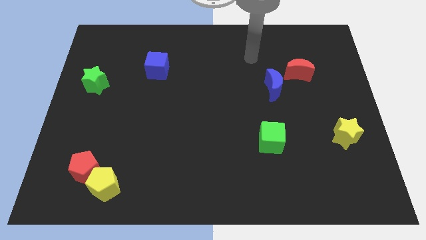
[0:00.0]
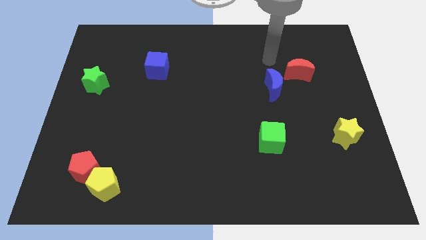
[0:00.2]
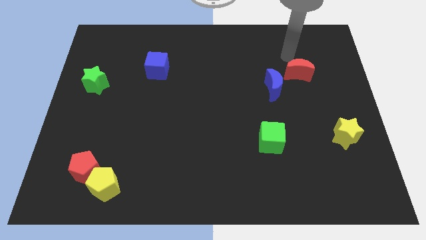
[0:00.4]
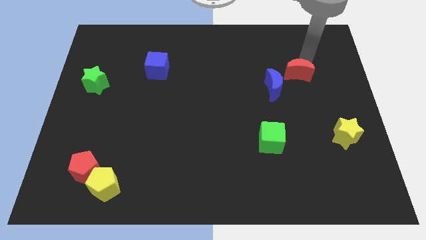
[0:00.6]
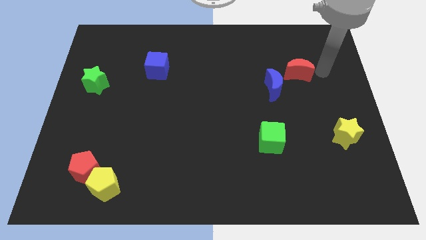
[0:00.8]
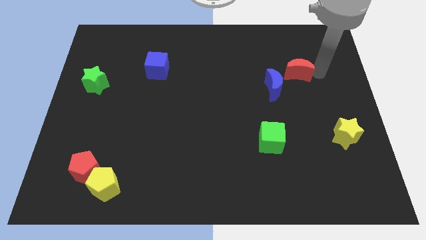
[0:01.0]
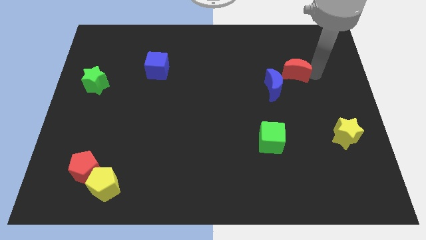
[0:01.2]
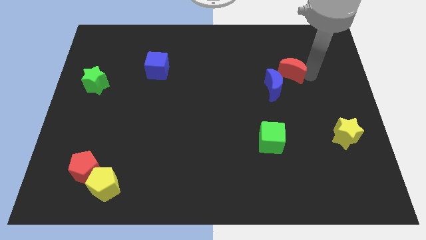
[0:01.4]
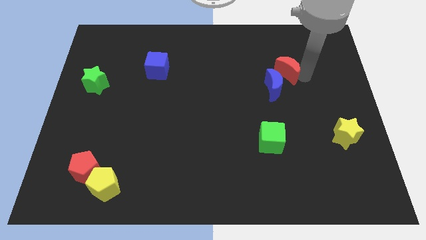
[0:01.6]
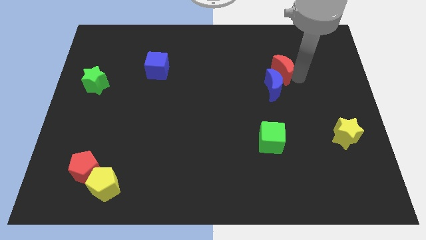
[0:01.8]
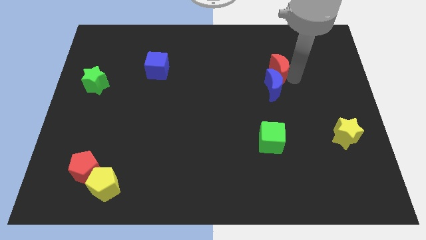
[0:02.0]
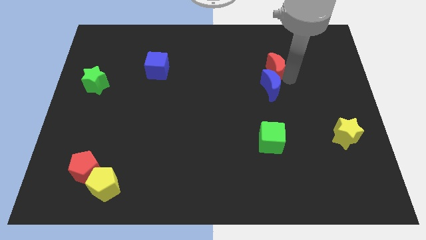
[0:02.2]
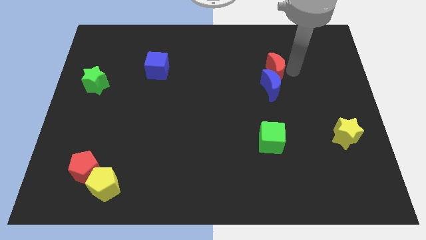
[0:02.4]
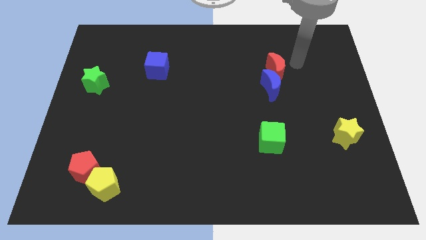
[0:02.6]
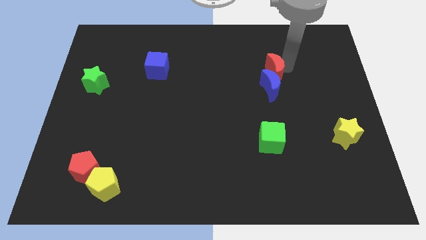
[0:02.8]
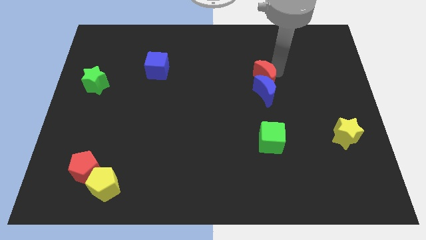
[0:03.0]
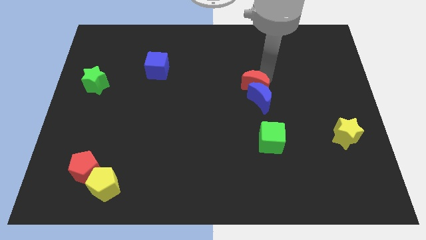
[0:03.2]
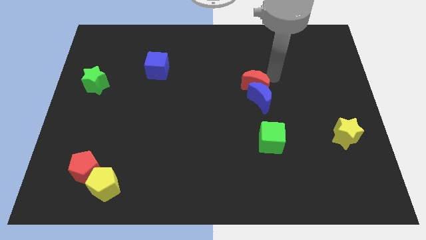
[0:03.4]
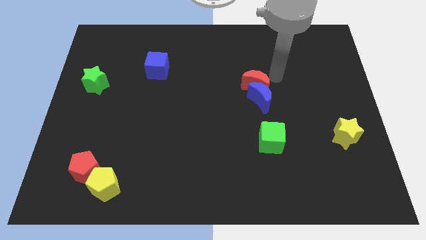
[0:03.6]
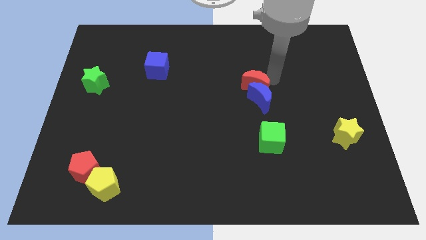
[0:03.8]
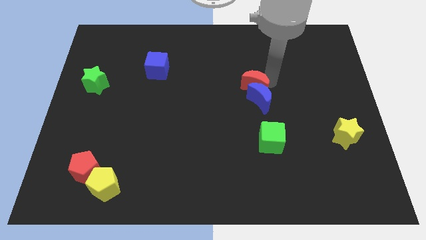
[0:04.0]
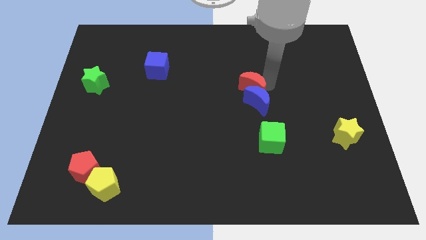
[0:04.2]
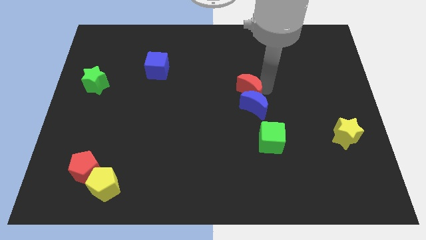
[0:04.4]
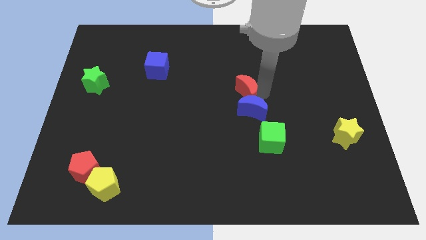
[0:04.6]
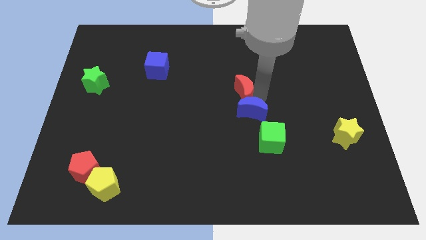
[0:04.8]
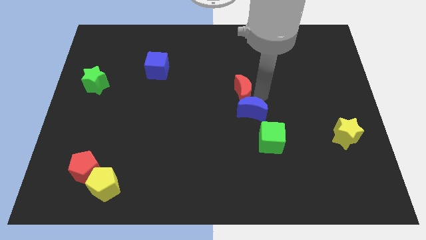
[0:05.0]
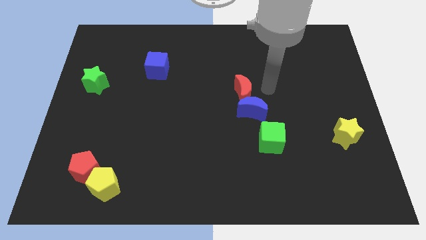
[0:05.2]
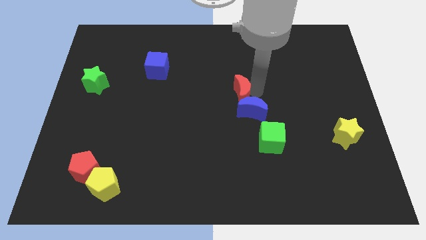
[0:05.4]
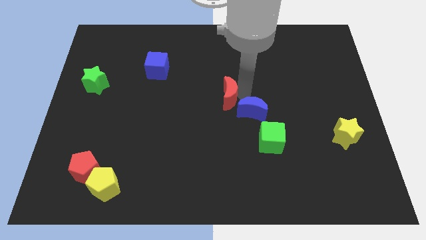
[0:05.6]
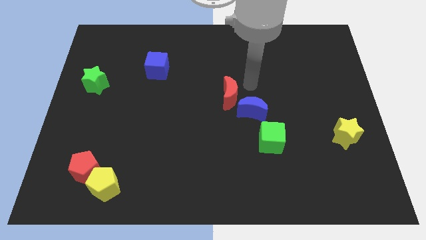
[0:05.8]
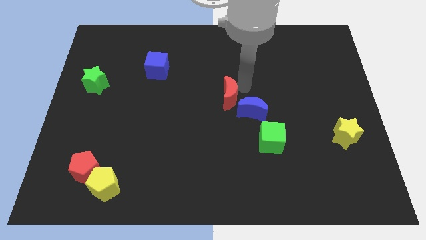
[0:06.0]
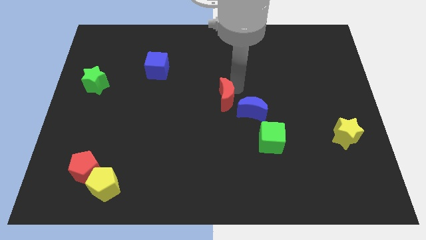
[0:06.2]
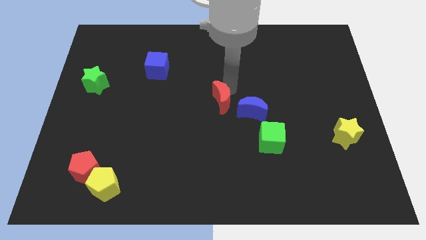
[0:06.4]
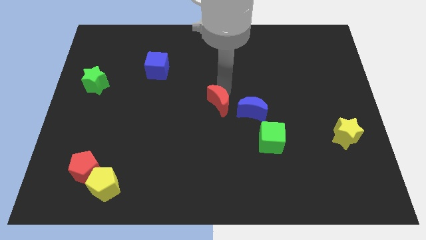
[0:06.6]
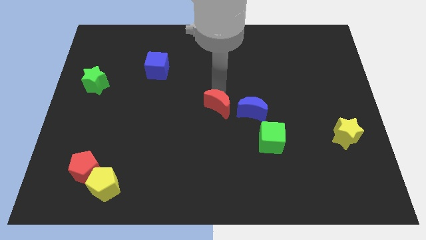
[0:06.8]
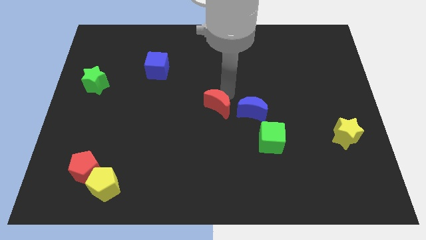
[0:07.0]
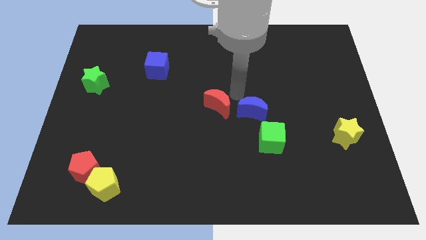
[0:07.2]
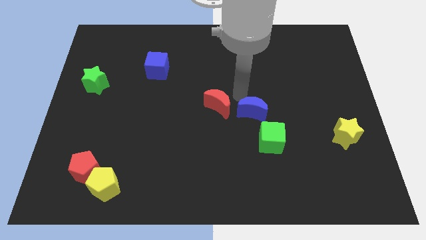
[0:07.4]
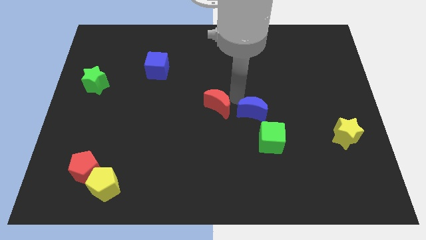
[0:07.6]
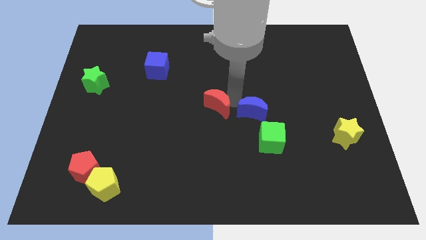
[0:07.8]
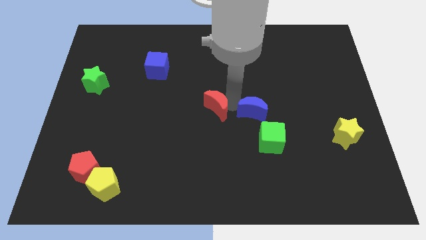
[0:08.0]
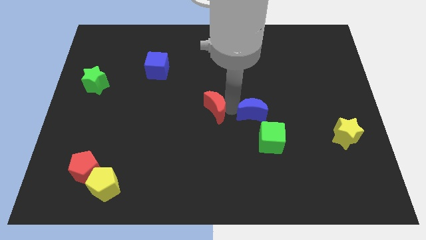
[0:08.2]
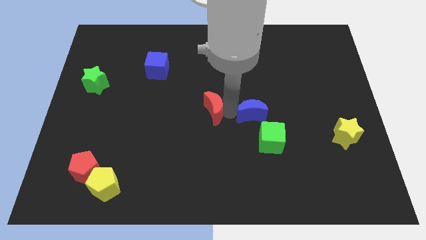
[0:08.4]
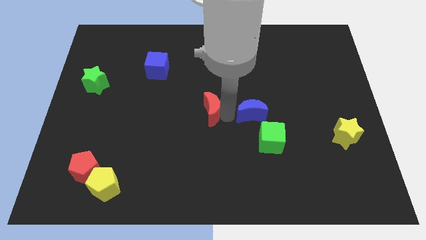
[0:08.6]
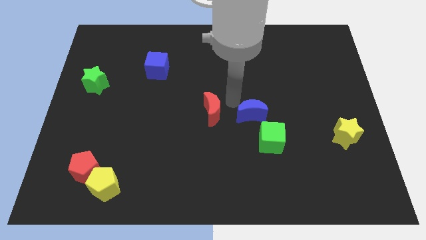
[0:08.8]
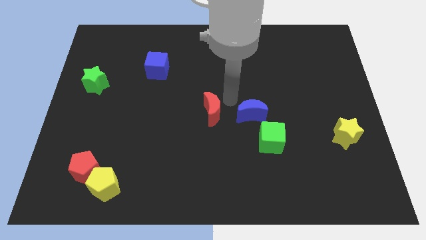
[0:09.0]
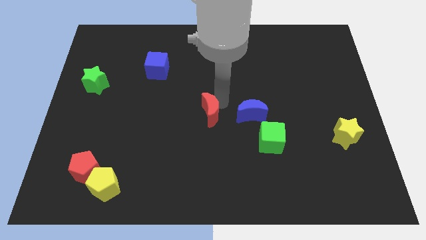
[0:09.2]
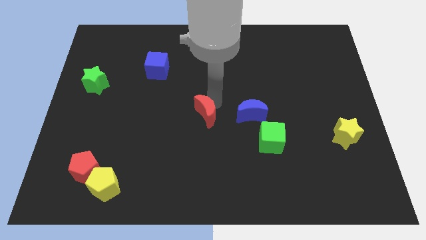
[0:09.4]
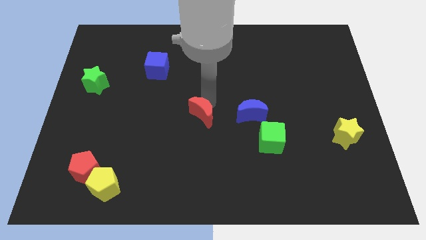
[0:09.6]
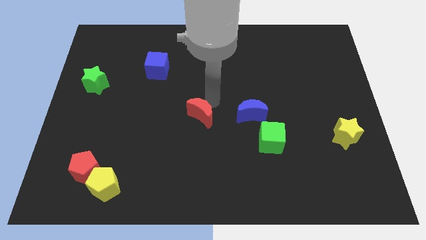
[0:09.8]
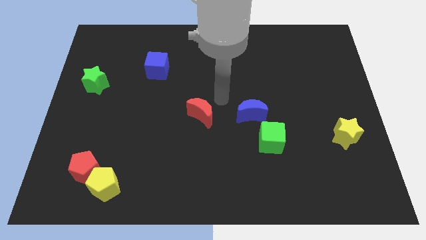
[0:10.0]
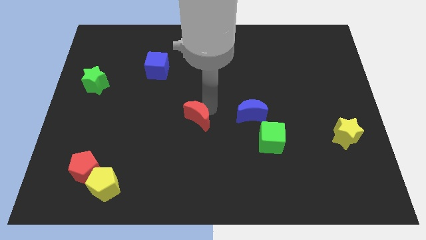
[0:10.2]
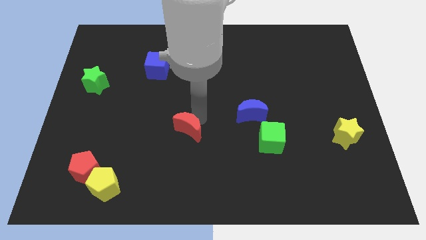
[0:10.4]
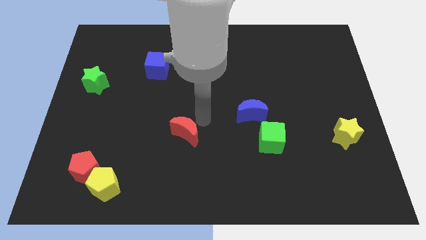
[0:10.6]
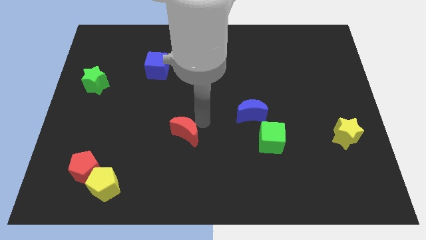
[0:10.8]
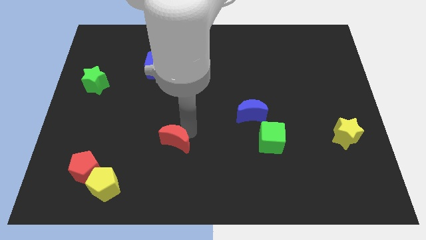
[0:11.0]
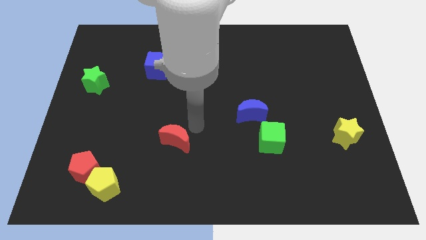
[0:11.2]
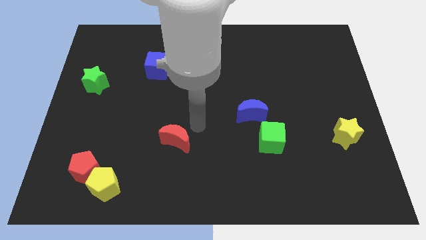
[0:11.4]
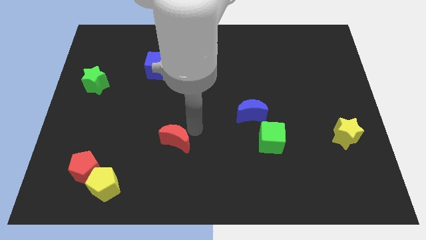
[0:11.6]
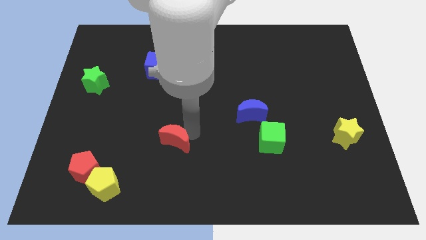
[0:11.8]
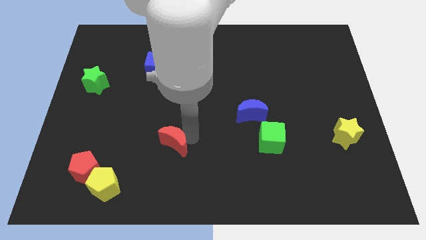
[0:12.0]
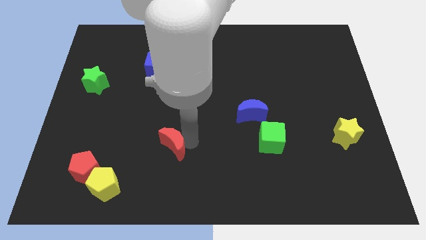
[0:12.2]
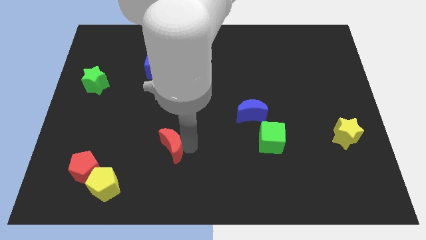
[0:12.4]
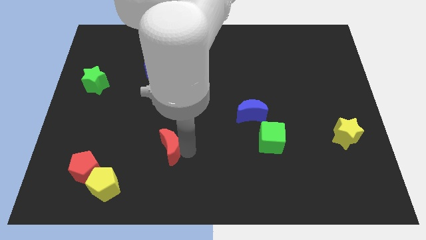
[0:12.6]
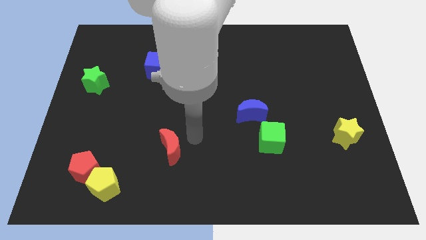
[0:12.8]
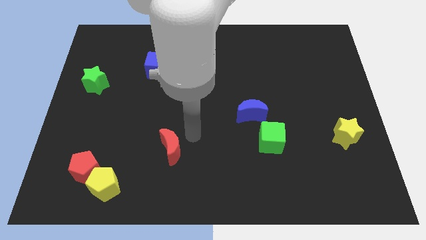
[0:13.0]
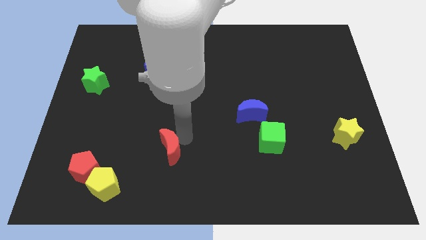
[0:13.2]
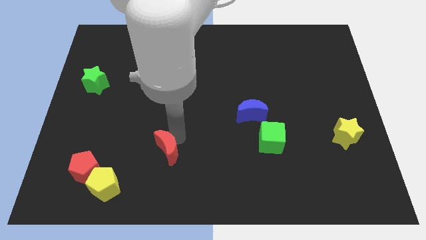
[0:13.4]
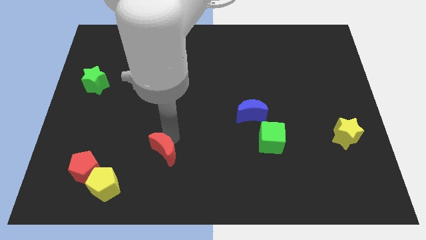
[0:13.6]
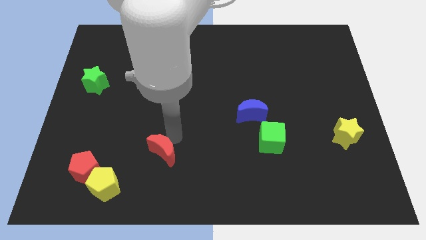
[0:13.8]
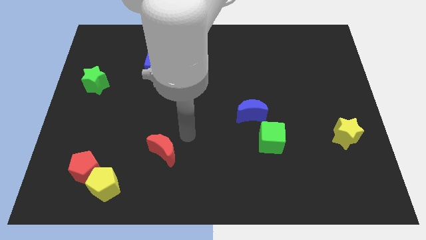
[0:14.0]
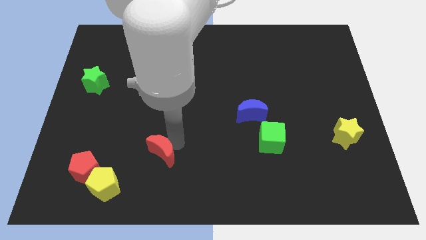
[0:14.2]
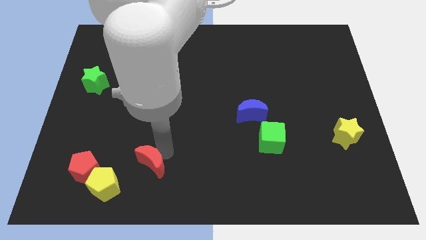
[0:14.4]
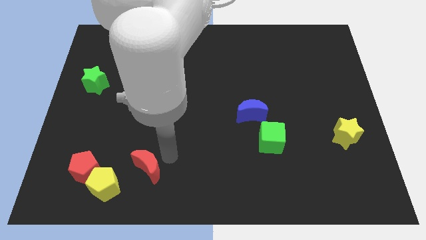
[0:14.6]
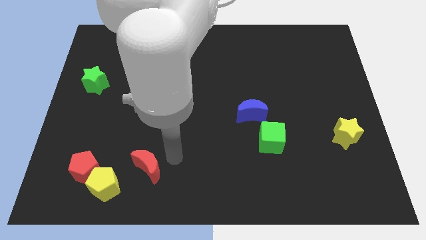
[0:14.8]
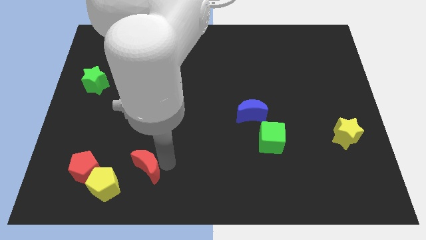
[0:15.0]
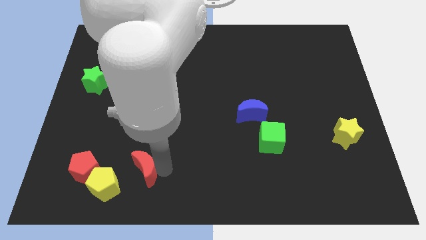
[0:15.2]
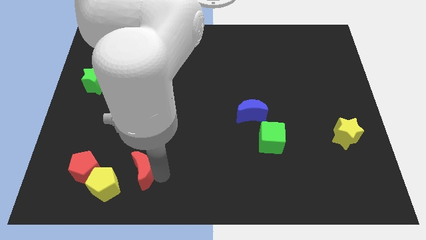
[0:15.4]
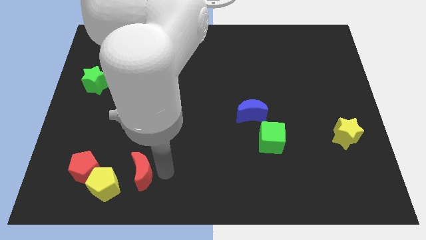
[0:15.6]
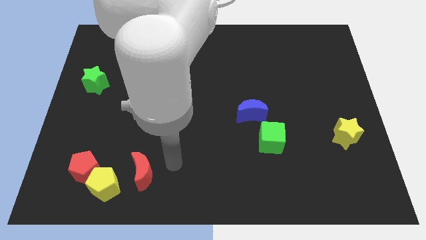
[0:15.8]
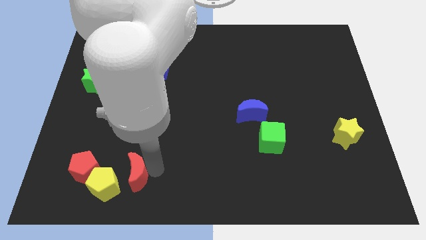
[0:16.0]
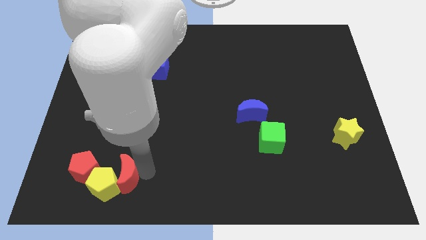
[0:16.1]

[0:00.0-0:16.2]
move the red moon close to the yellow pentagon
